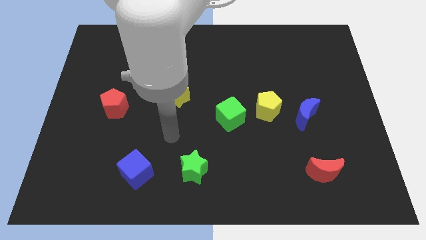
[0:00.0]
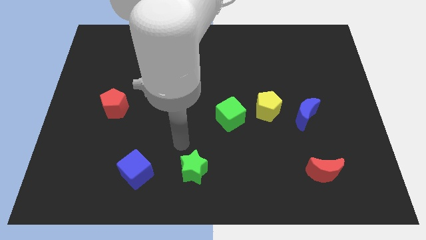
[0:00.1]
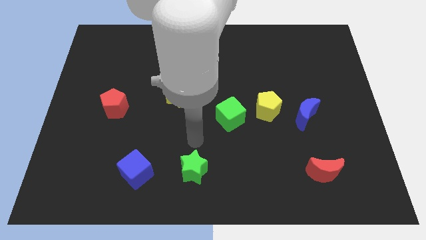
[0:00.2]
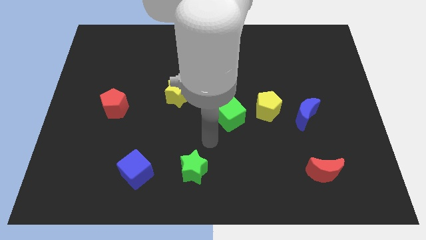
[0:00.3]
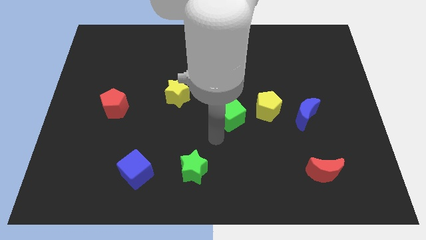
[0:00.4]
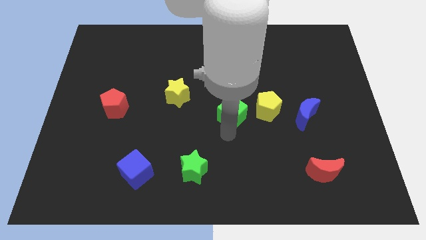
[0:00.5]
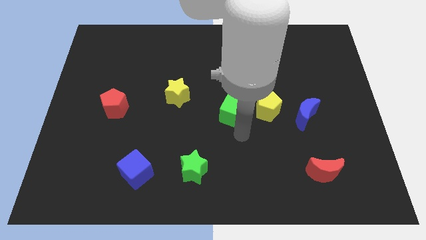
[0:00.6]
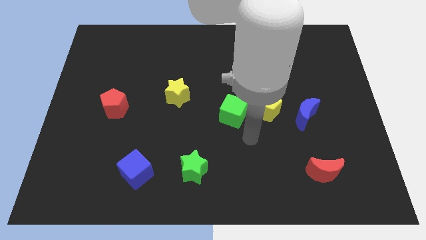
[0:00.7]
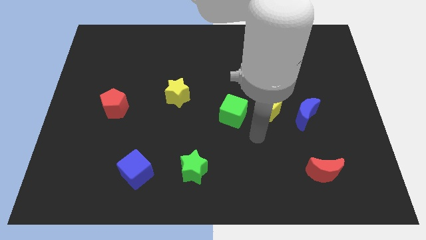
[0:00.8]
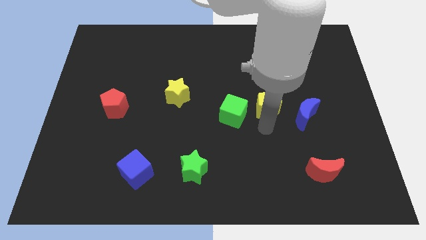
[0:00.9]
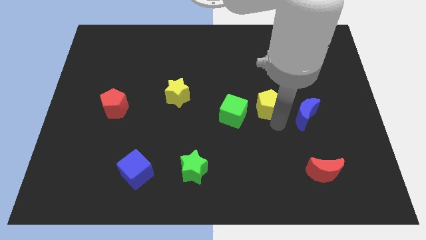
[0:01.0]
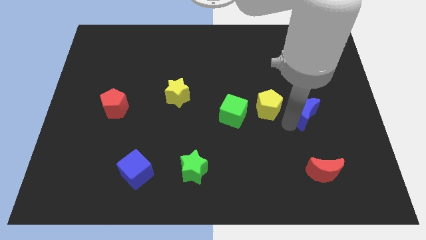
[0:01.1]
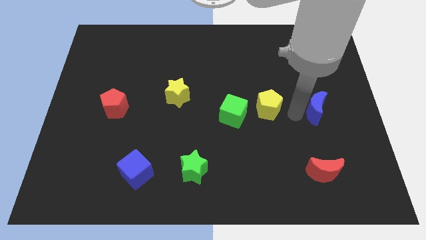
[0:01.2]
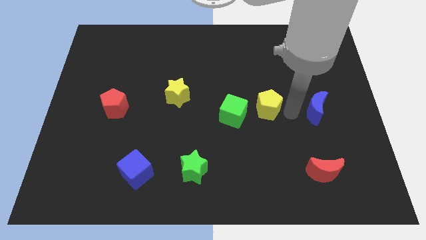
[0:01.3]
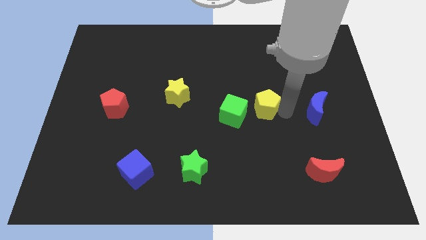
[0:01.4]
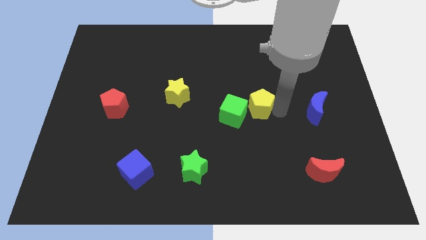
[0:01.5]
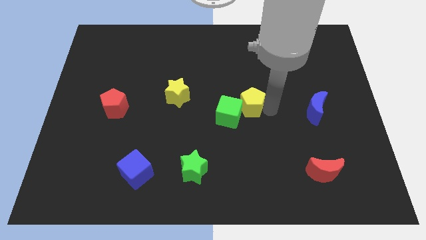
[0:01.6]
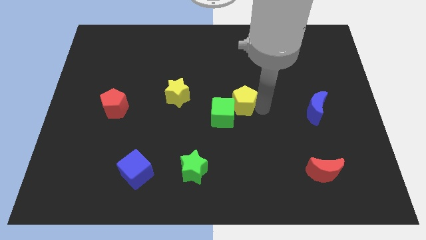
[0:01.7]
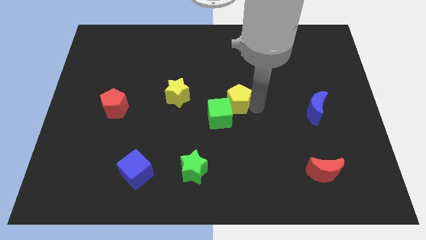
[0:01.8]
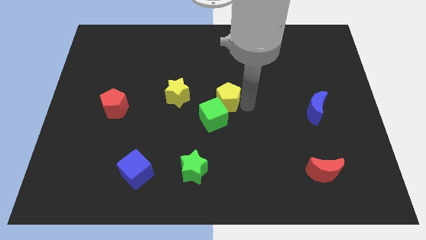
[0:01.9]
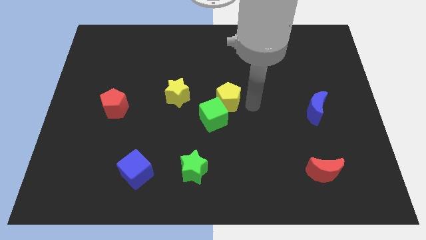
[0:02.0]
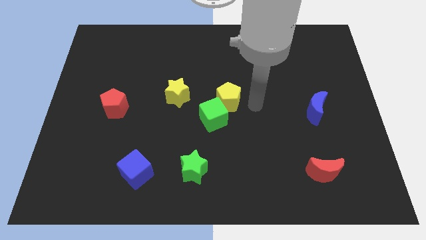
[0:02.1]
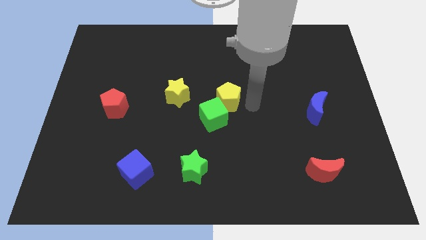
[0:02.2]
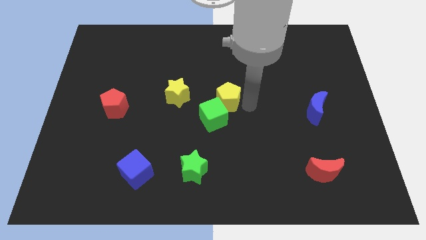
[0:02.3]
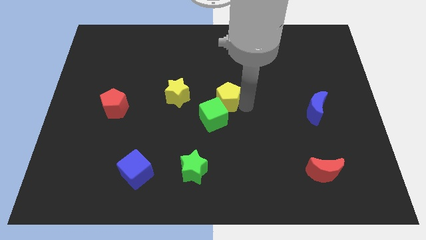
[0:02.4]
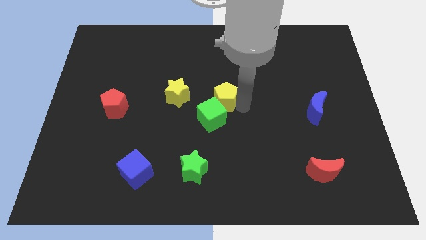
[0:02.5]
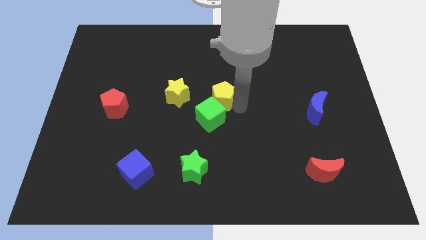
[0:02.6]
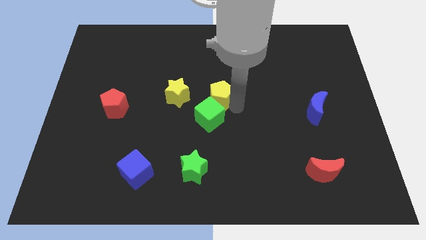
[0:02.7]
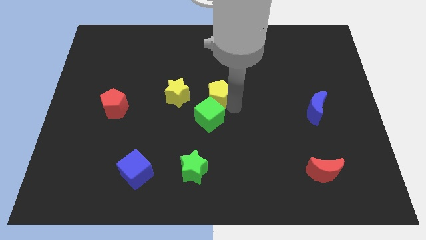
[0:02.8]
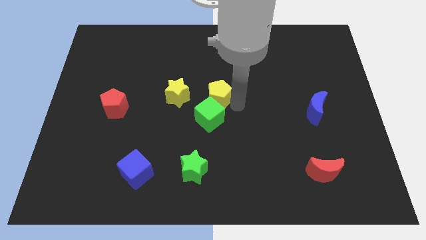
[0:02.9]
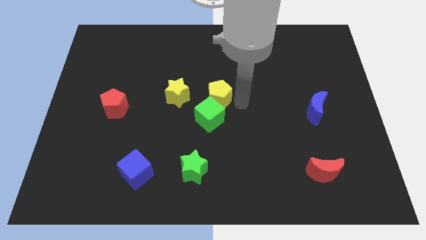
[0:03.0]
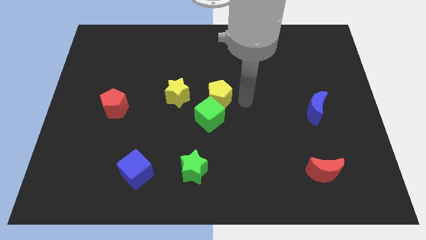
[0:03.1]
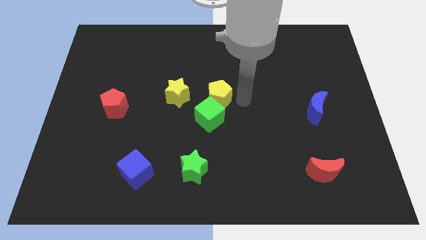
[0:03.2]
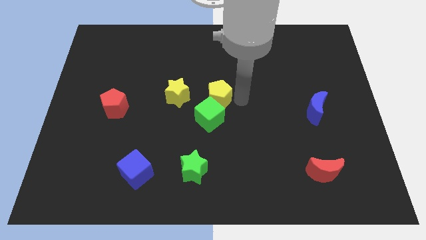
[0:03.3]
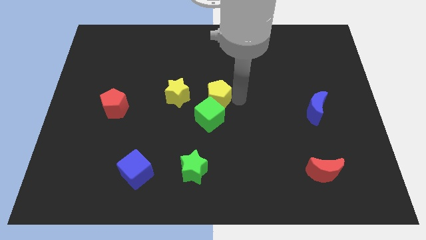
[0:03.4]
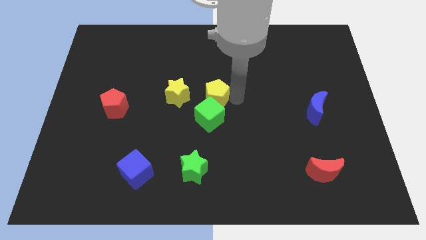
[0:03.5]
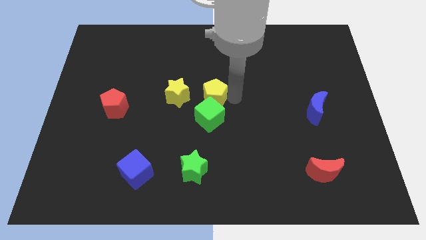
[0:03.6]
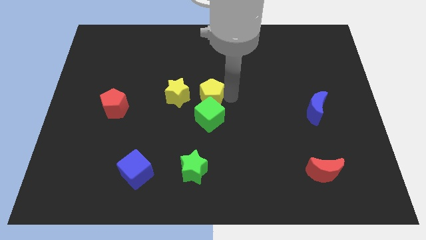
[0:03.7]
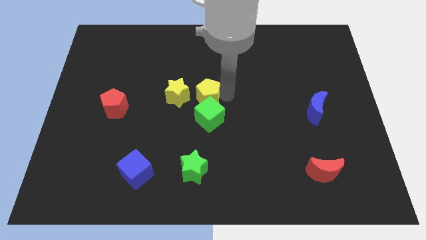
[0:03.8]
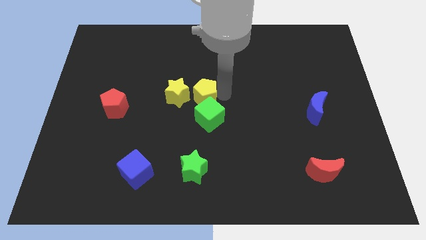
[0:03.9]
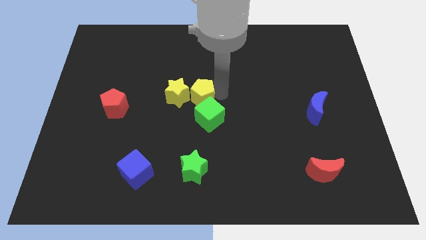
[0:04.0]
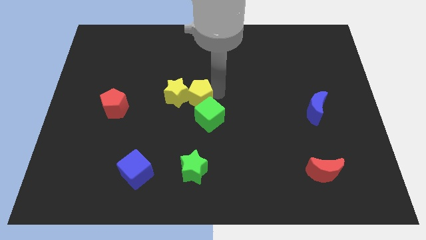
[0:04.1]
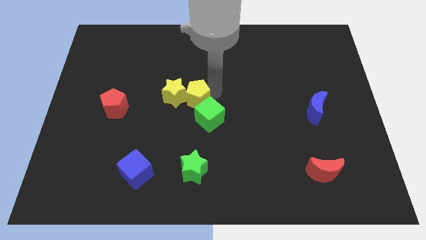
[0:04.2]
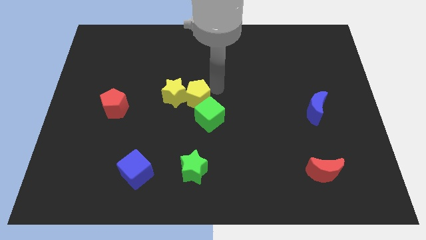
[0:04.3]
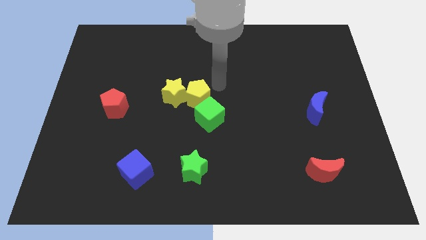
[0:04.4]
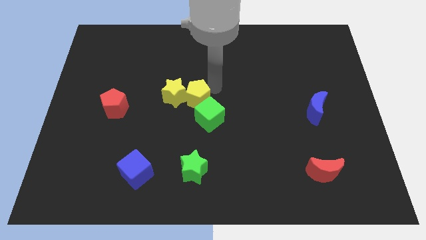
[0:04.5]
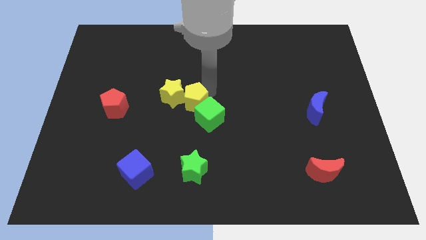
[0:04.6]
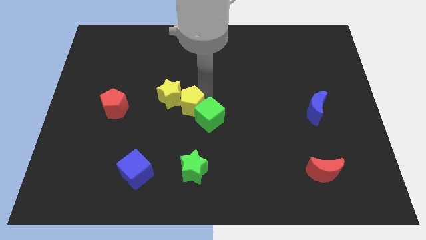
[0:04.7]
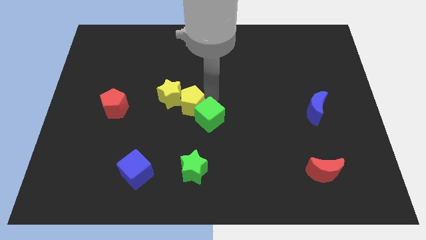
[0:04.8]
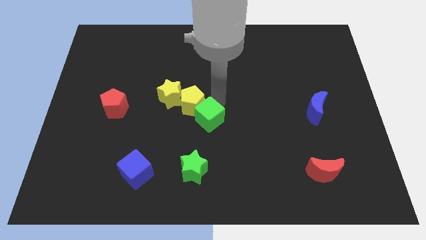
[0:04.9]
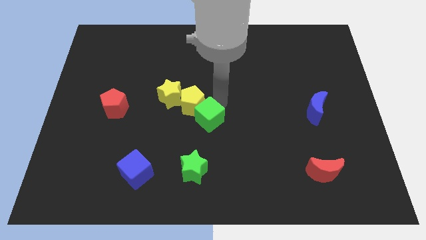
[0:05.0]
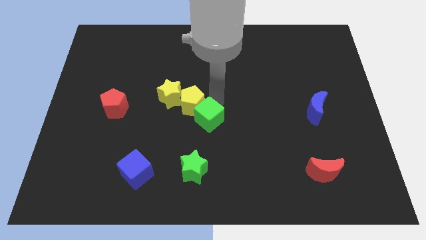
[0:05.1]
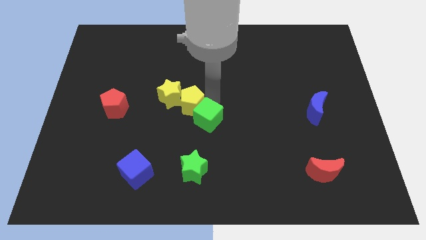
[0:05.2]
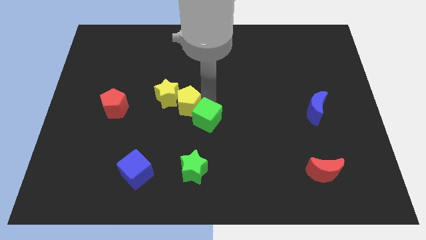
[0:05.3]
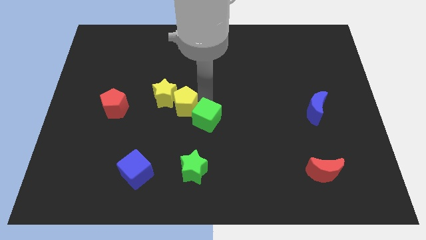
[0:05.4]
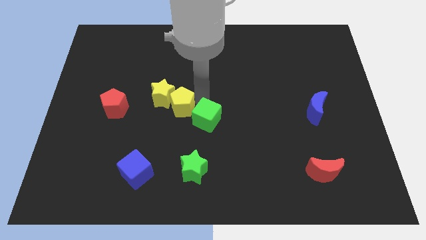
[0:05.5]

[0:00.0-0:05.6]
put the yellow pentagon right of the red pentagon

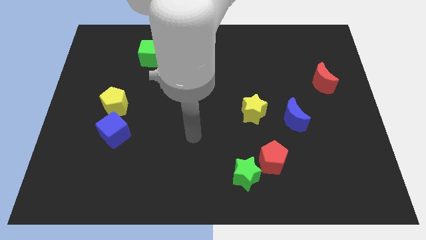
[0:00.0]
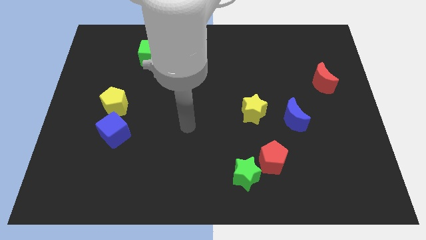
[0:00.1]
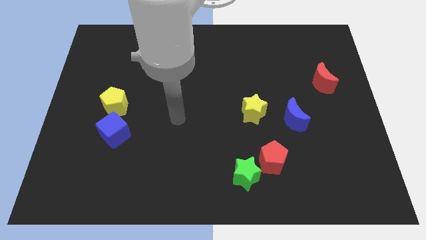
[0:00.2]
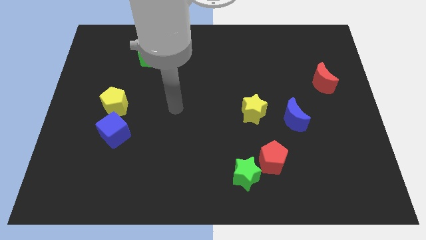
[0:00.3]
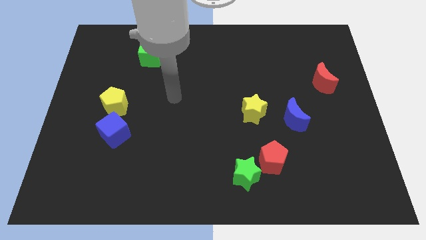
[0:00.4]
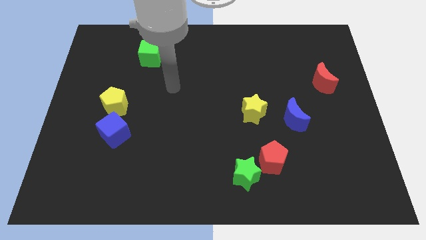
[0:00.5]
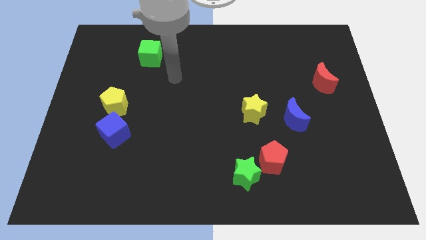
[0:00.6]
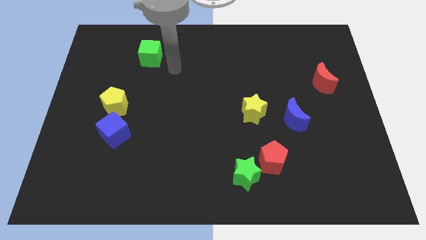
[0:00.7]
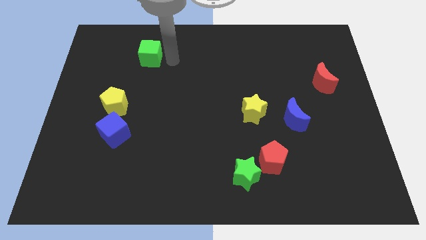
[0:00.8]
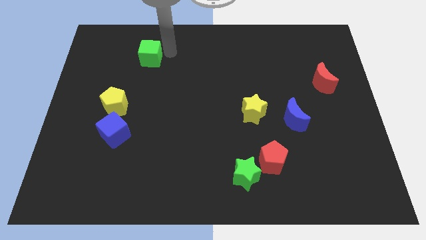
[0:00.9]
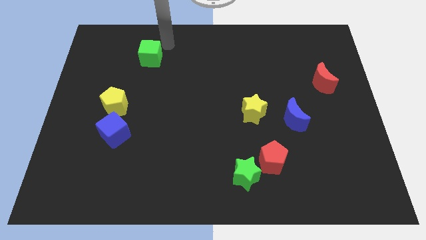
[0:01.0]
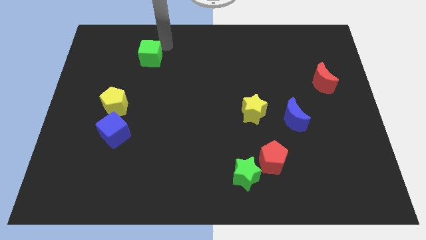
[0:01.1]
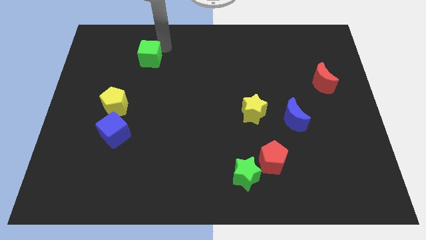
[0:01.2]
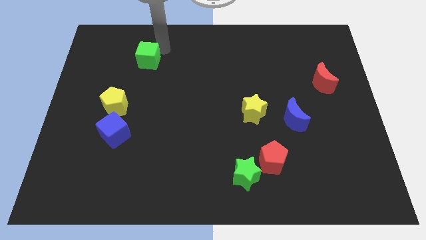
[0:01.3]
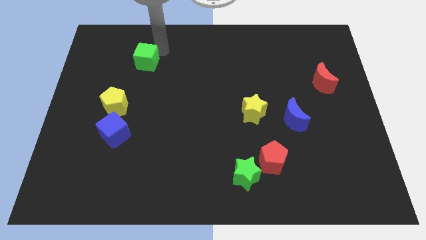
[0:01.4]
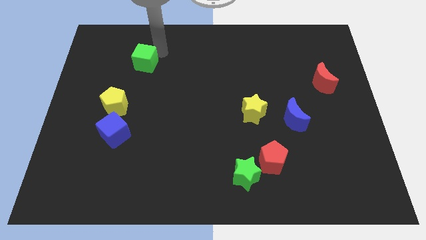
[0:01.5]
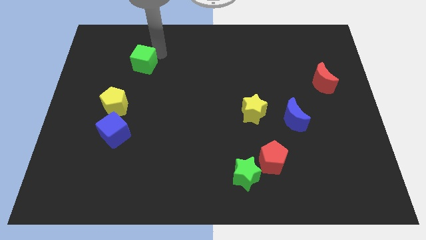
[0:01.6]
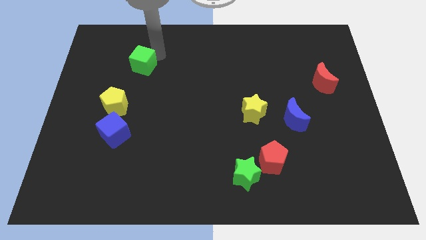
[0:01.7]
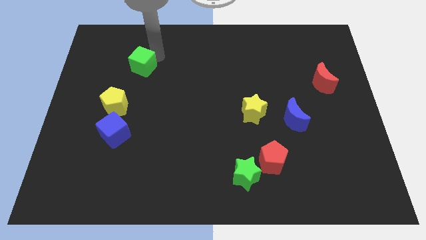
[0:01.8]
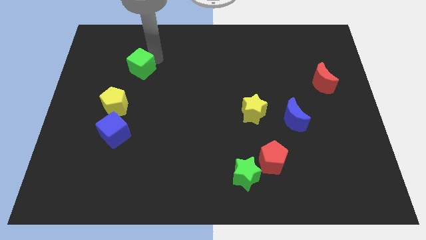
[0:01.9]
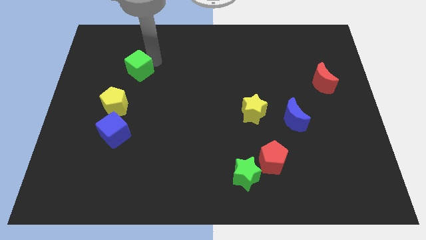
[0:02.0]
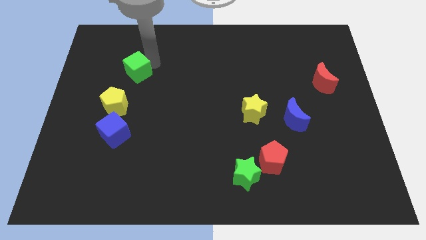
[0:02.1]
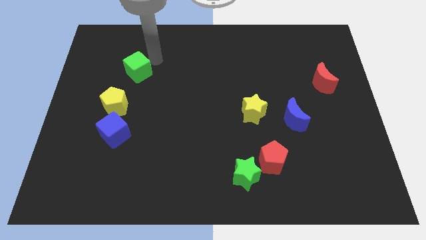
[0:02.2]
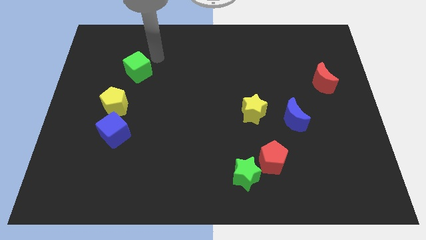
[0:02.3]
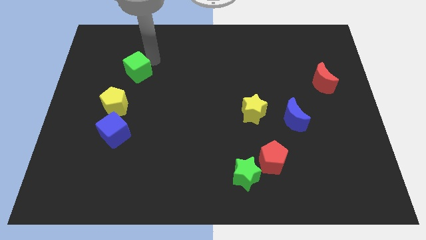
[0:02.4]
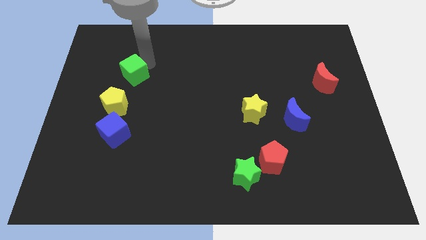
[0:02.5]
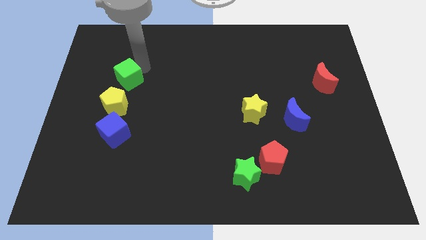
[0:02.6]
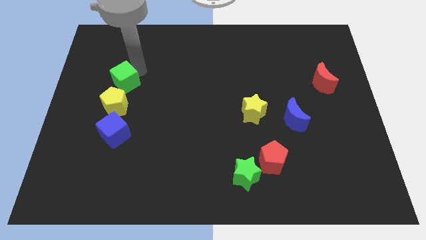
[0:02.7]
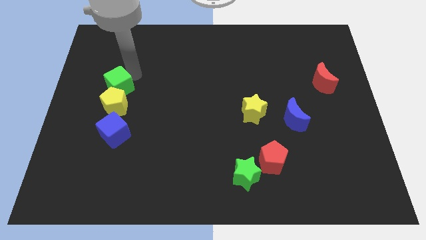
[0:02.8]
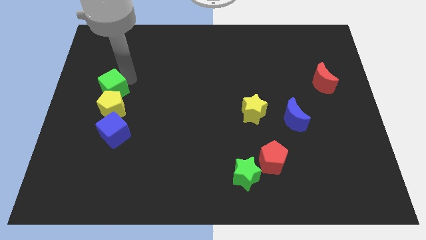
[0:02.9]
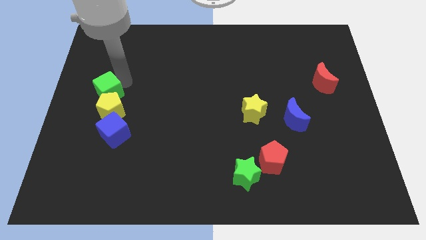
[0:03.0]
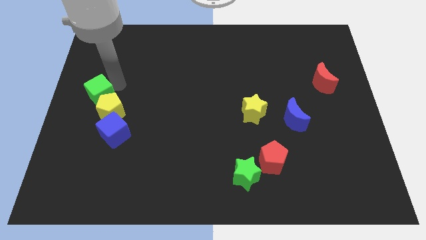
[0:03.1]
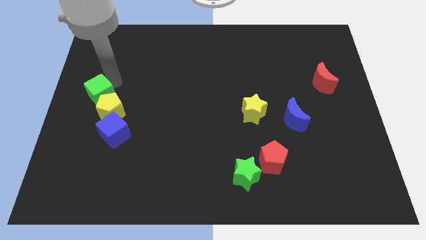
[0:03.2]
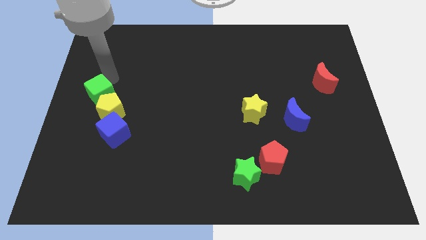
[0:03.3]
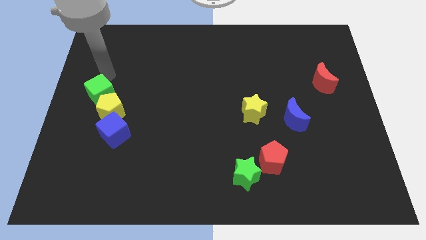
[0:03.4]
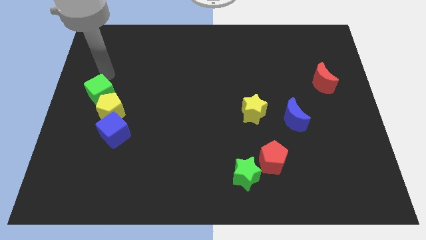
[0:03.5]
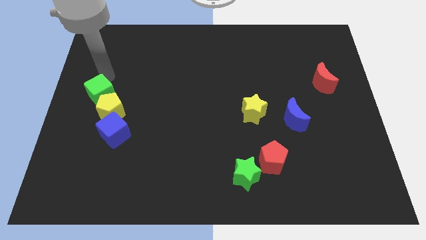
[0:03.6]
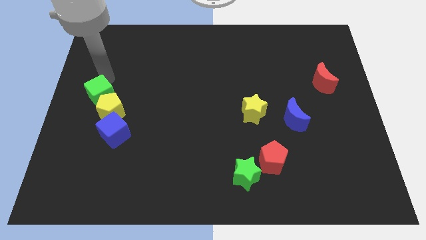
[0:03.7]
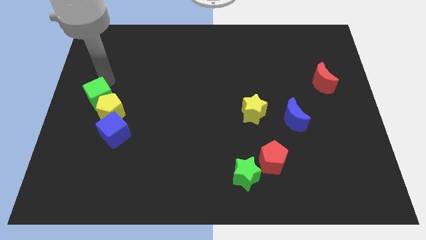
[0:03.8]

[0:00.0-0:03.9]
move the green cube diagonally up and to the left of the blue cube
